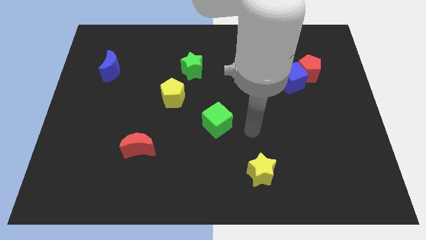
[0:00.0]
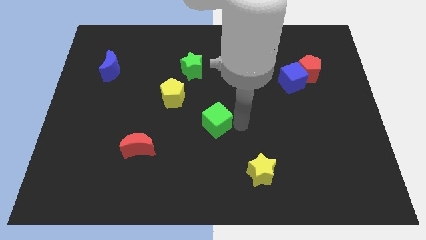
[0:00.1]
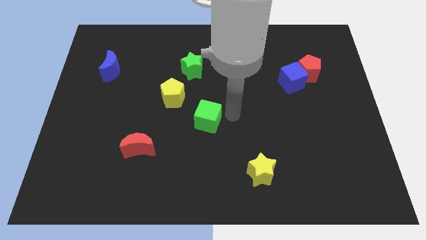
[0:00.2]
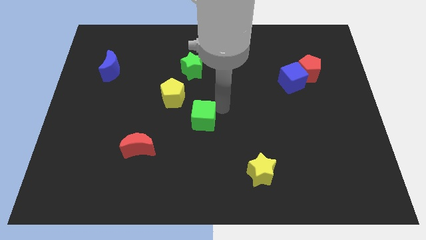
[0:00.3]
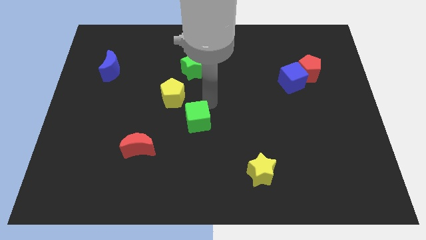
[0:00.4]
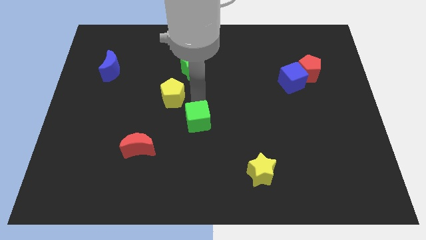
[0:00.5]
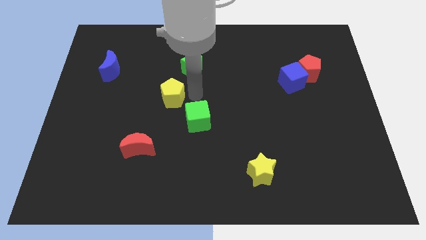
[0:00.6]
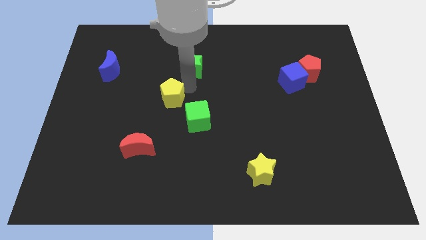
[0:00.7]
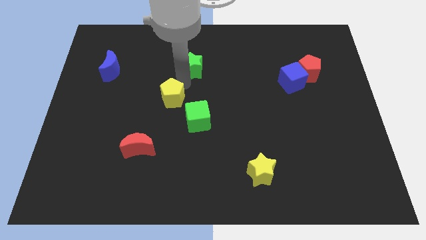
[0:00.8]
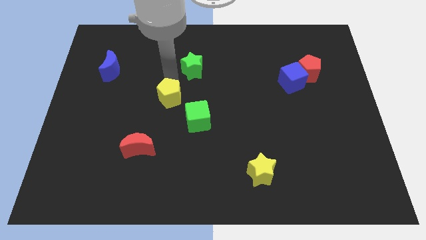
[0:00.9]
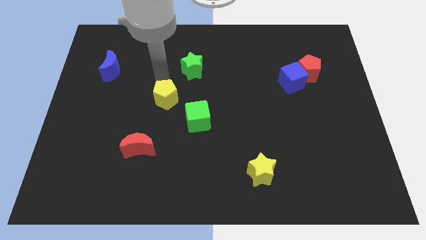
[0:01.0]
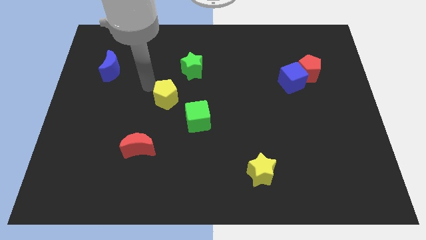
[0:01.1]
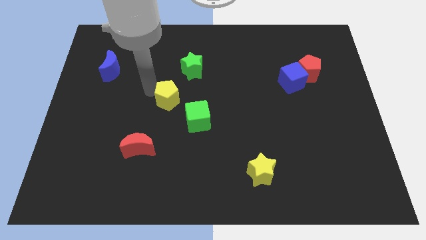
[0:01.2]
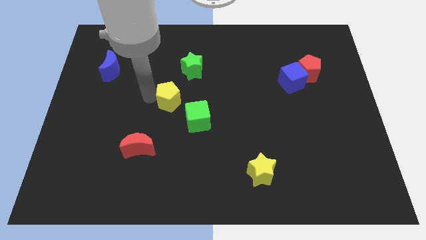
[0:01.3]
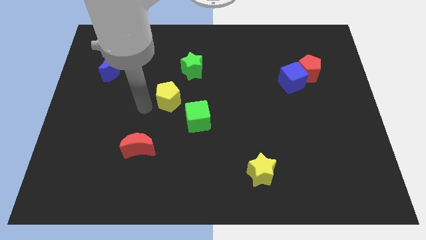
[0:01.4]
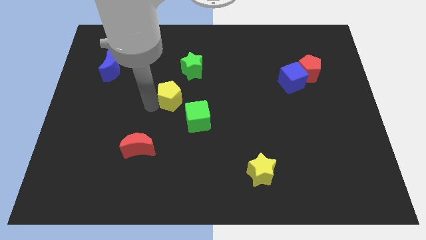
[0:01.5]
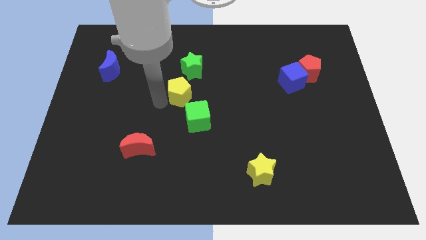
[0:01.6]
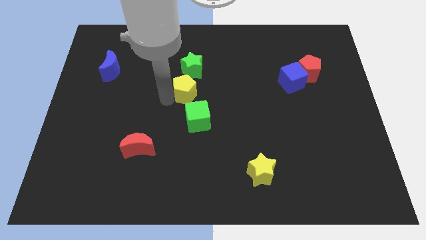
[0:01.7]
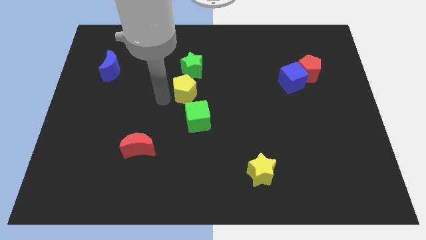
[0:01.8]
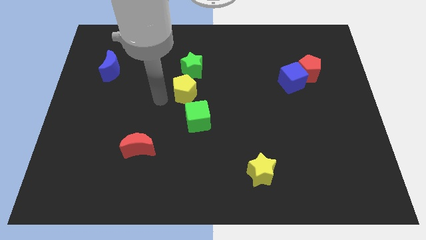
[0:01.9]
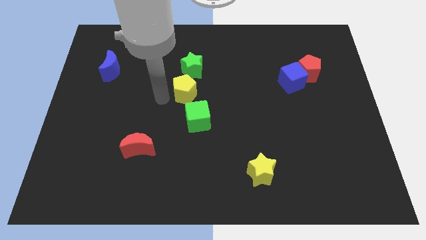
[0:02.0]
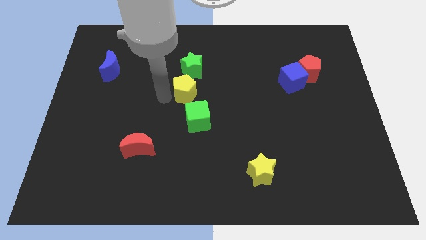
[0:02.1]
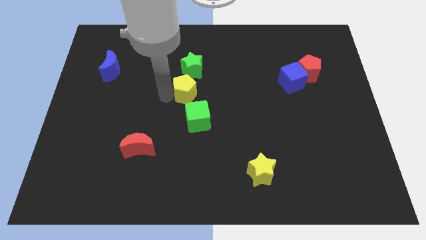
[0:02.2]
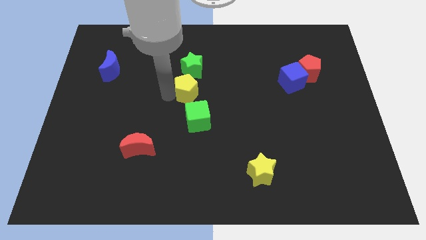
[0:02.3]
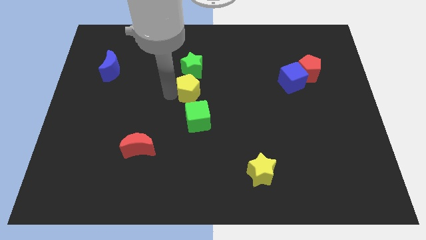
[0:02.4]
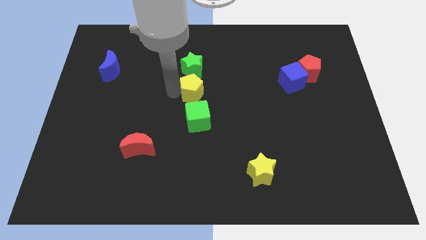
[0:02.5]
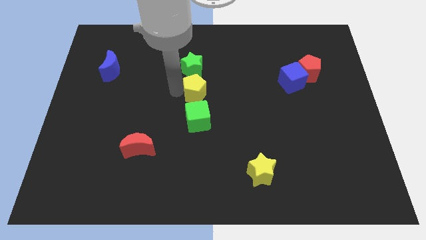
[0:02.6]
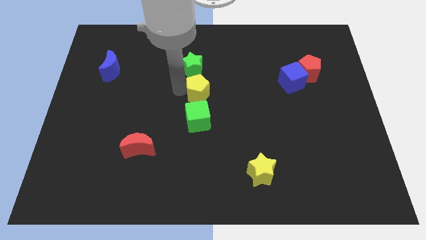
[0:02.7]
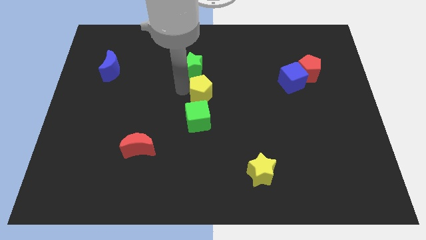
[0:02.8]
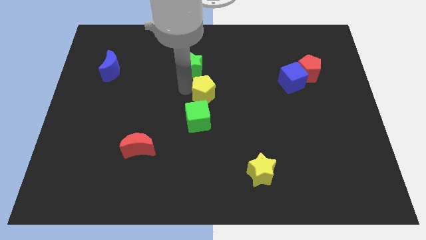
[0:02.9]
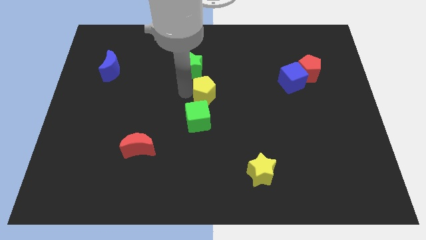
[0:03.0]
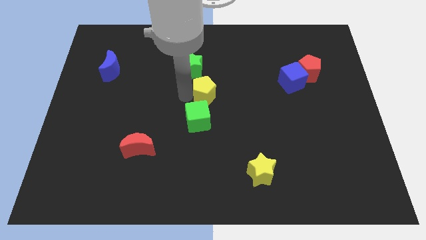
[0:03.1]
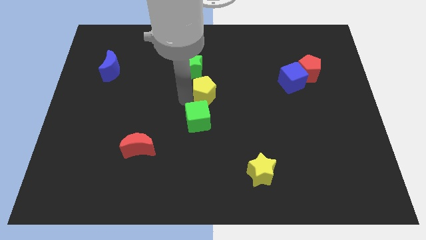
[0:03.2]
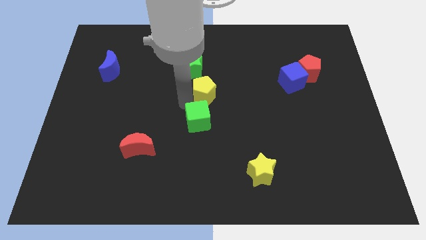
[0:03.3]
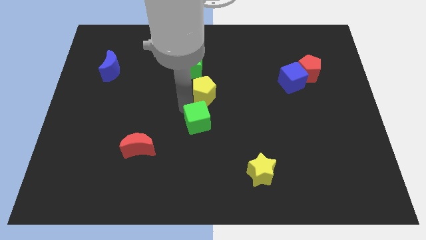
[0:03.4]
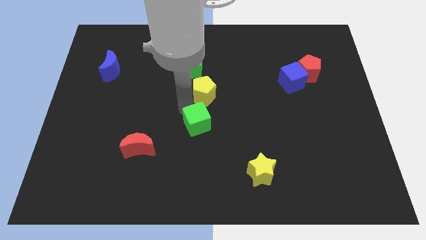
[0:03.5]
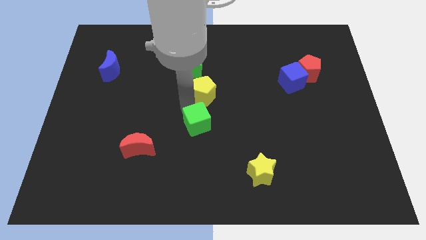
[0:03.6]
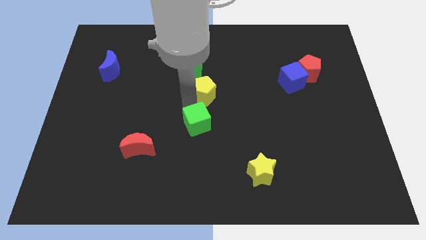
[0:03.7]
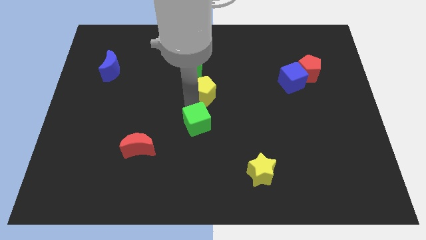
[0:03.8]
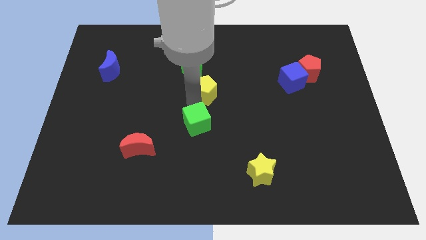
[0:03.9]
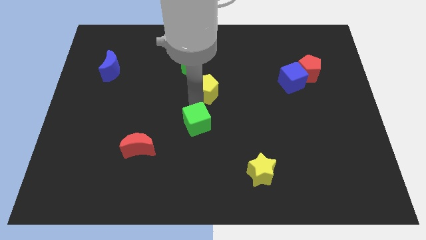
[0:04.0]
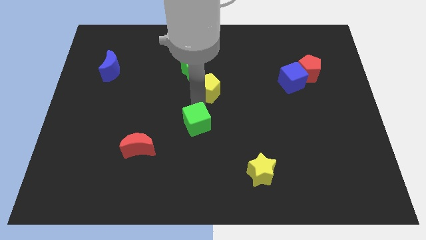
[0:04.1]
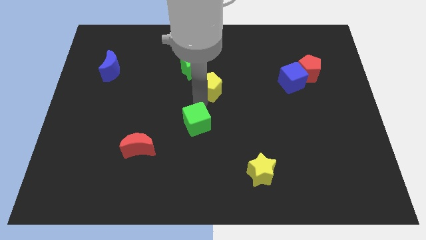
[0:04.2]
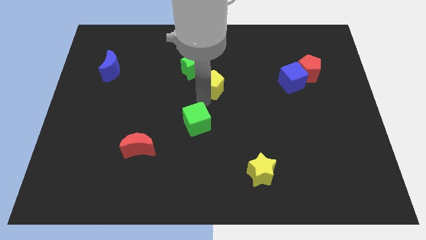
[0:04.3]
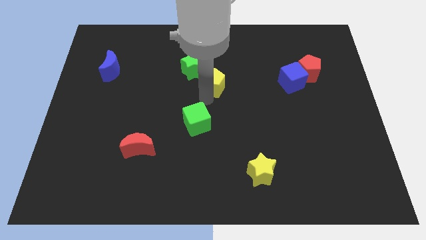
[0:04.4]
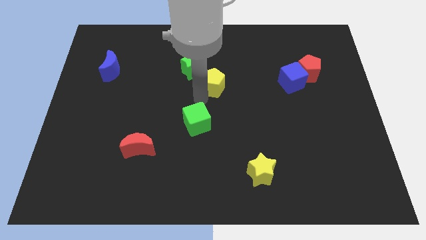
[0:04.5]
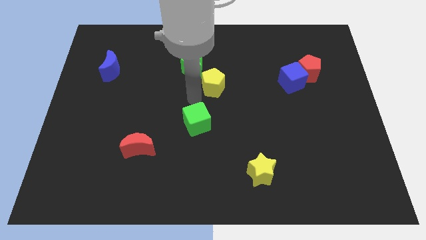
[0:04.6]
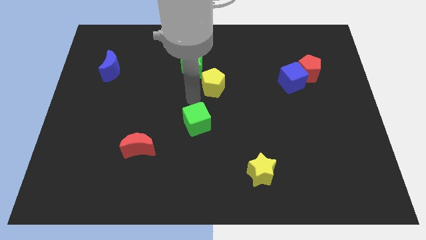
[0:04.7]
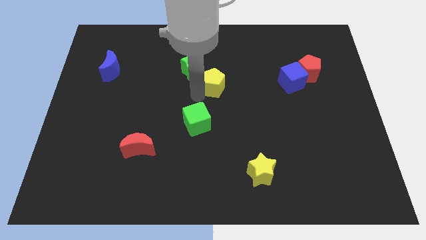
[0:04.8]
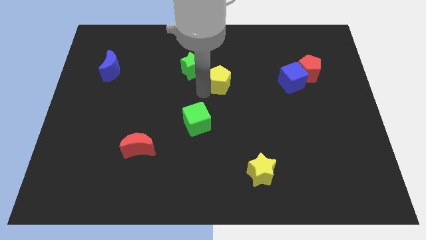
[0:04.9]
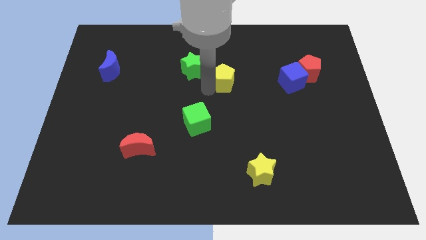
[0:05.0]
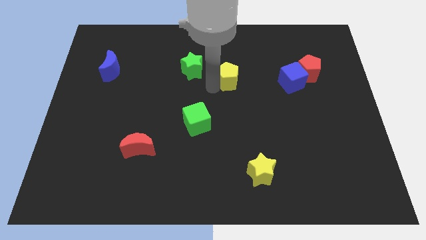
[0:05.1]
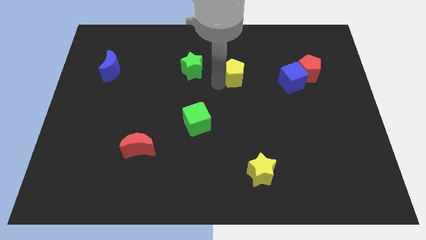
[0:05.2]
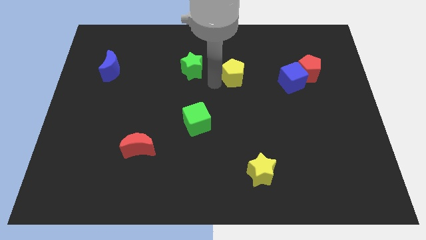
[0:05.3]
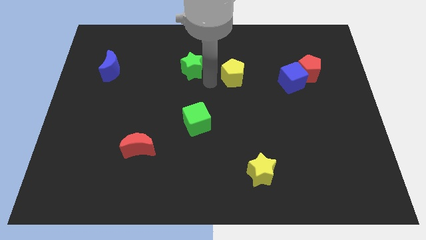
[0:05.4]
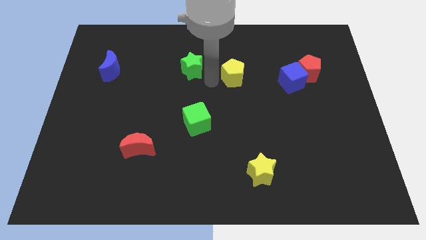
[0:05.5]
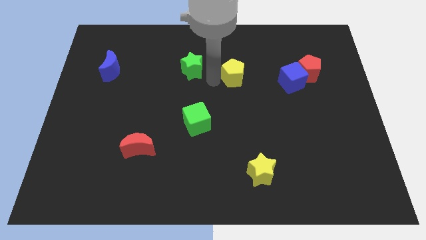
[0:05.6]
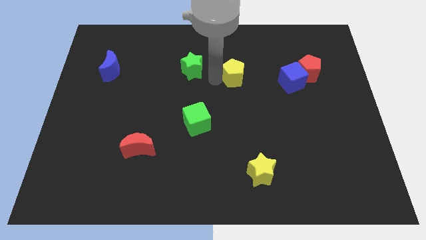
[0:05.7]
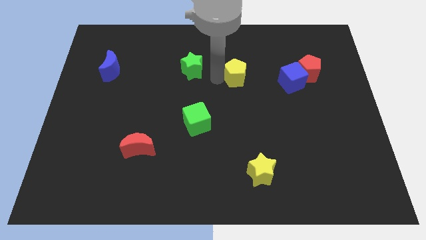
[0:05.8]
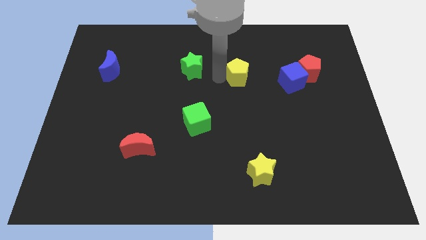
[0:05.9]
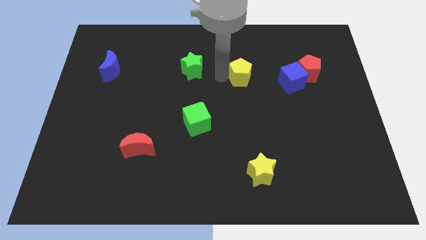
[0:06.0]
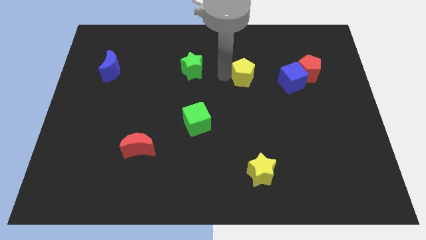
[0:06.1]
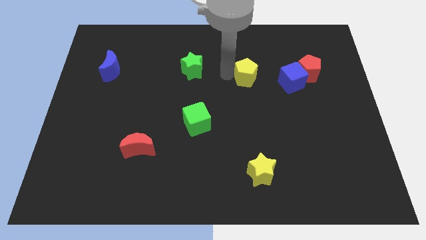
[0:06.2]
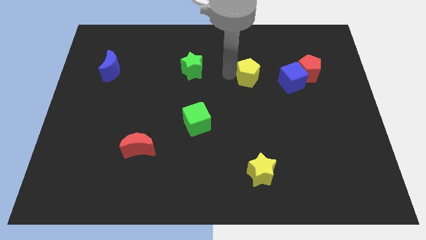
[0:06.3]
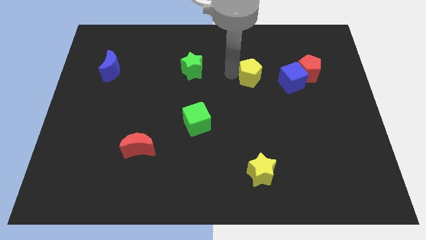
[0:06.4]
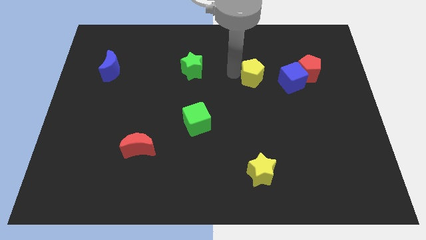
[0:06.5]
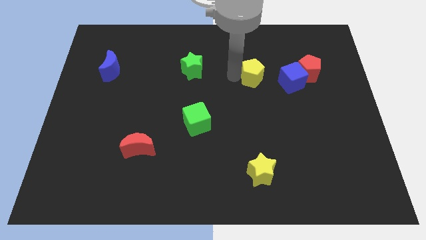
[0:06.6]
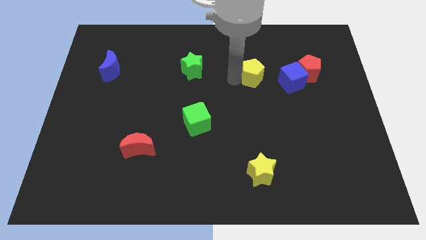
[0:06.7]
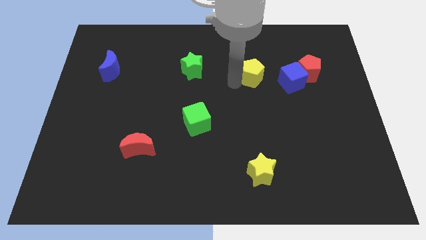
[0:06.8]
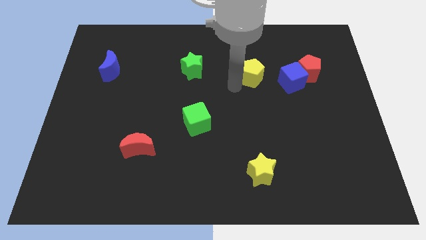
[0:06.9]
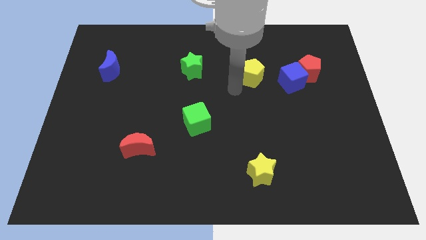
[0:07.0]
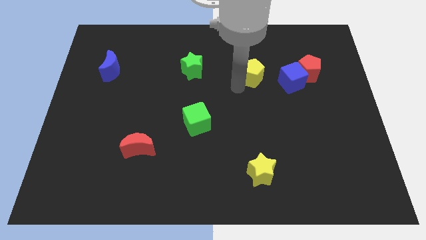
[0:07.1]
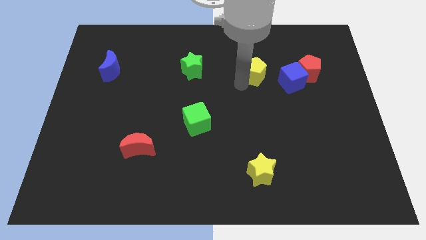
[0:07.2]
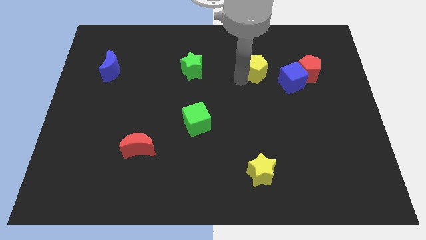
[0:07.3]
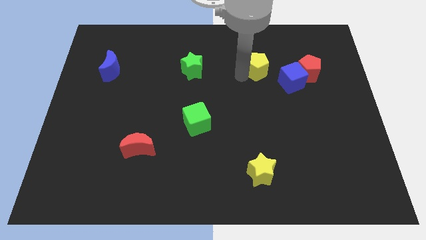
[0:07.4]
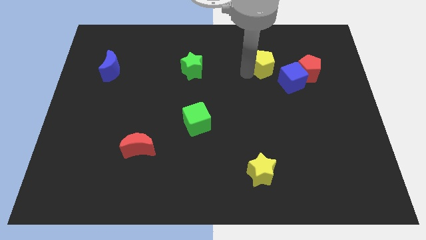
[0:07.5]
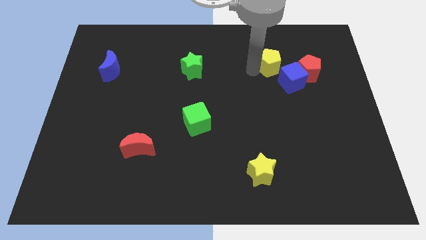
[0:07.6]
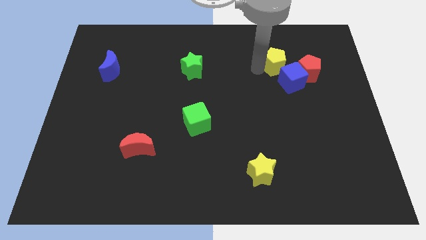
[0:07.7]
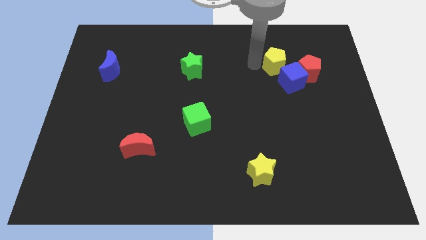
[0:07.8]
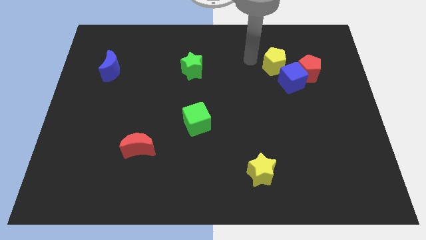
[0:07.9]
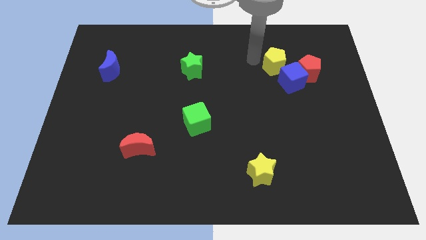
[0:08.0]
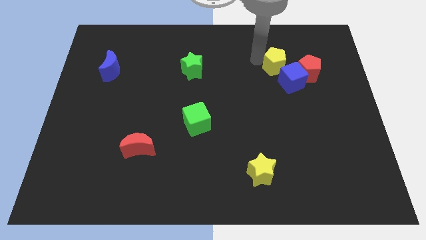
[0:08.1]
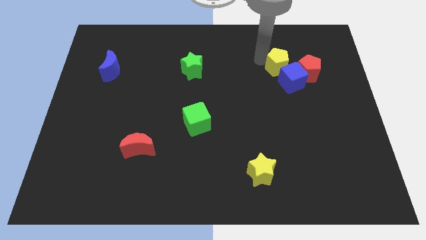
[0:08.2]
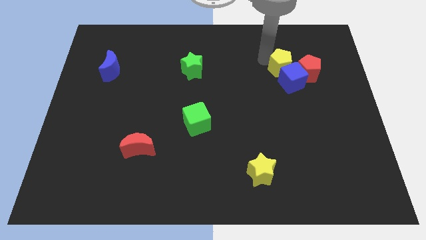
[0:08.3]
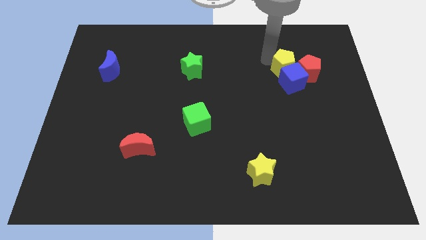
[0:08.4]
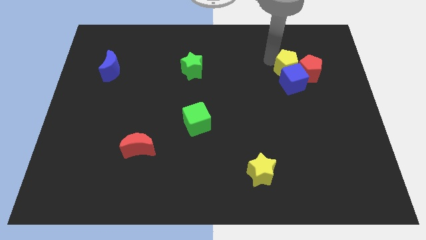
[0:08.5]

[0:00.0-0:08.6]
move the yellow pentagon next to the red pentagon

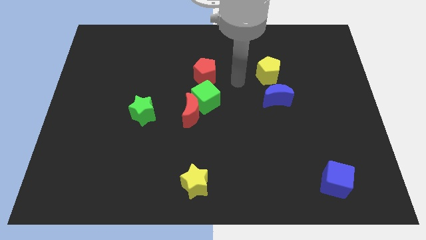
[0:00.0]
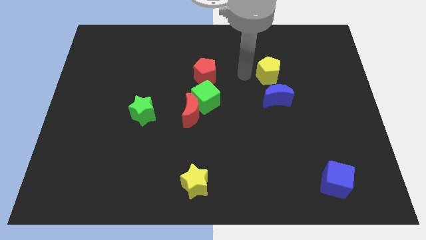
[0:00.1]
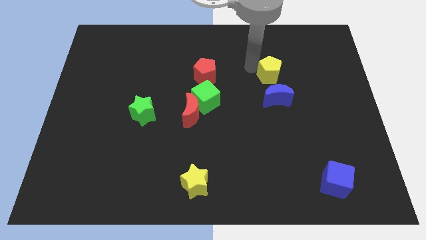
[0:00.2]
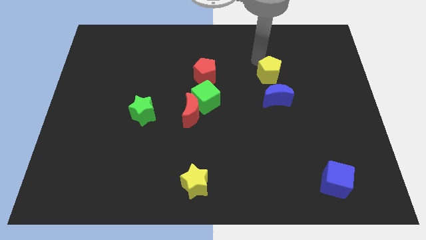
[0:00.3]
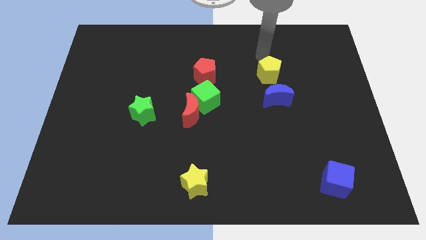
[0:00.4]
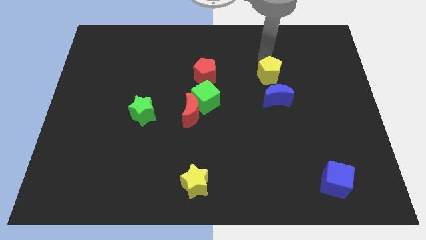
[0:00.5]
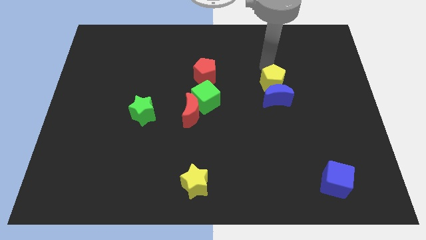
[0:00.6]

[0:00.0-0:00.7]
move the yellow pentagon next to the blue moon
